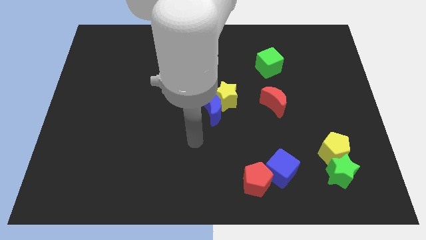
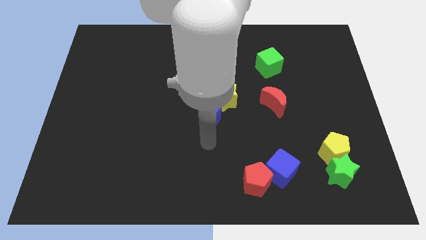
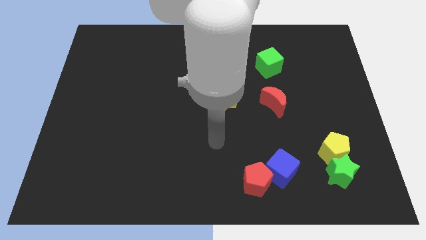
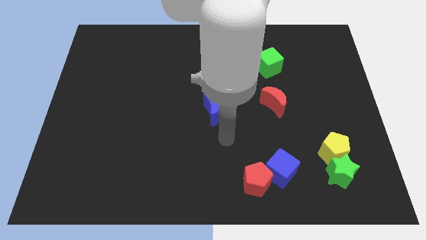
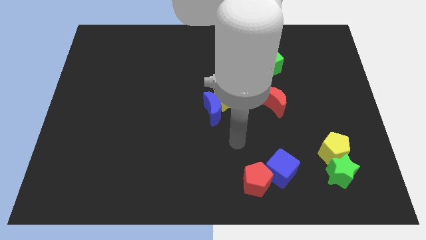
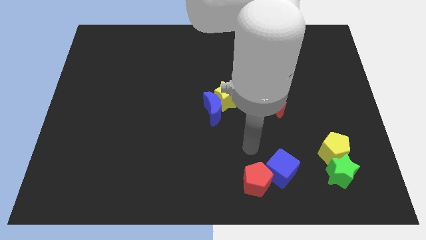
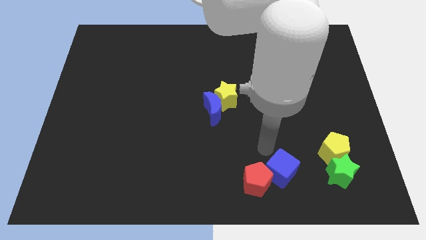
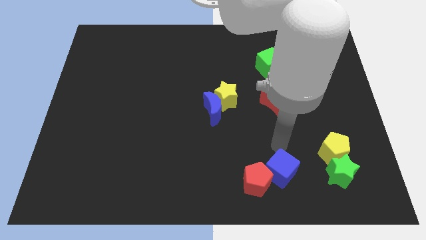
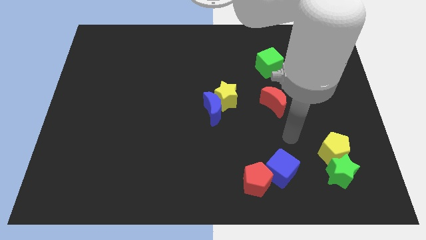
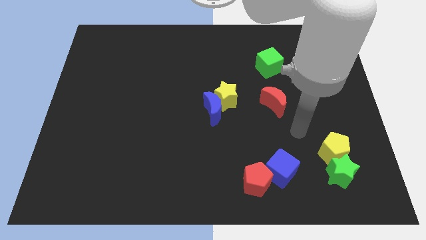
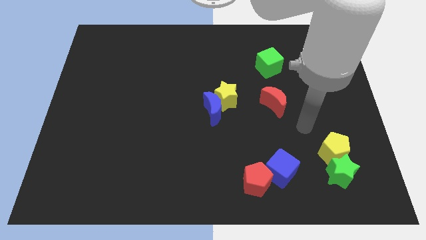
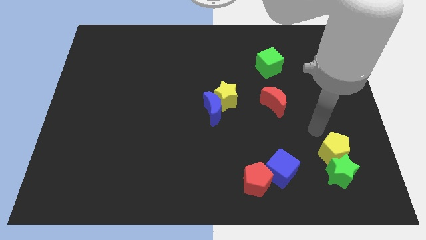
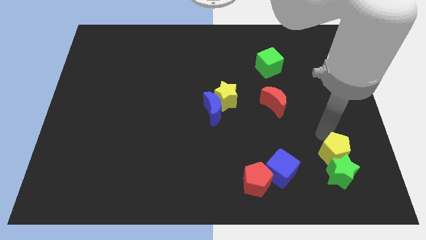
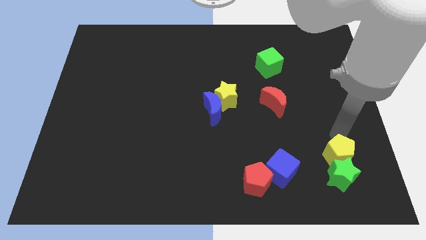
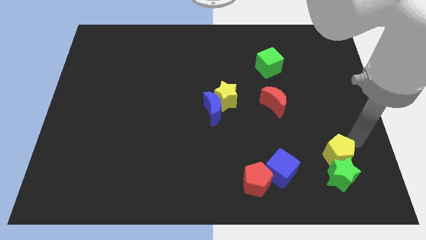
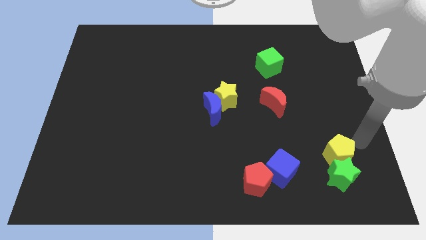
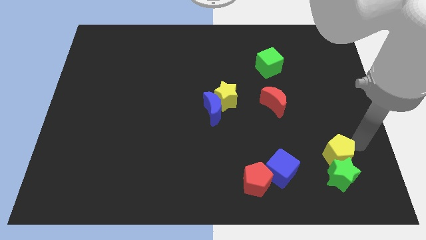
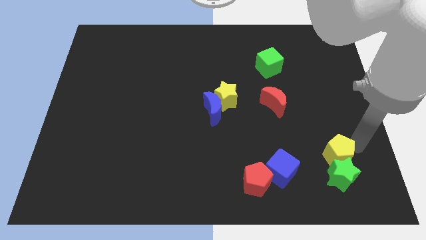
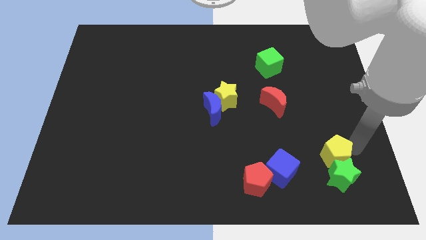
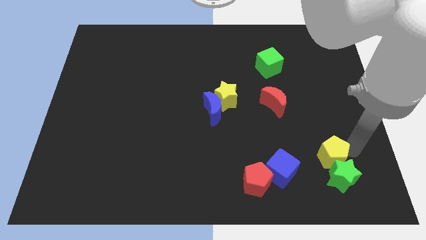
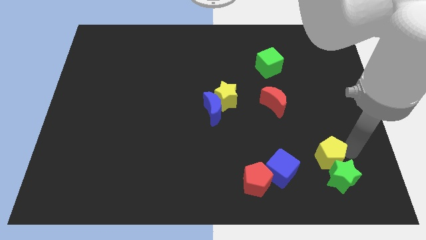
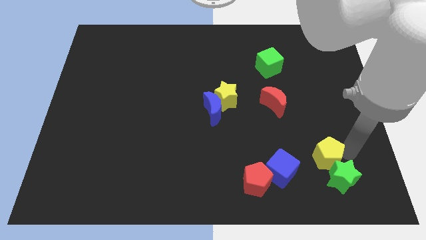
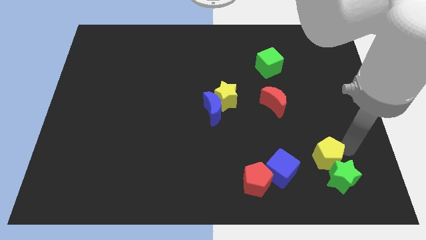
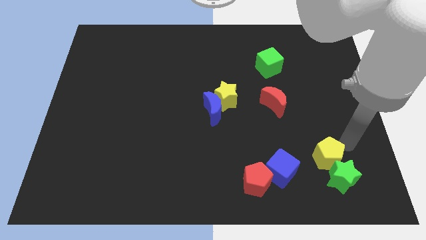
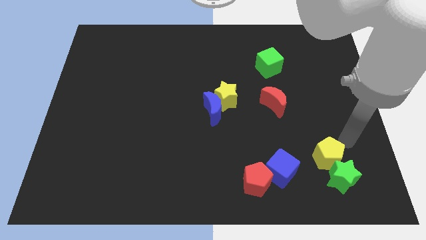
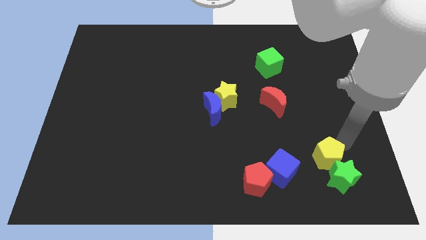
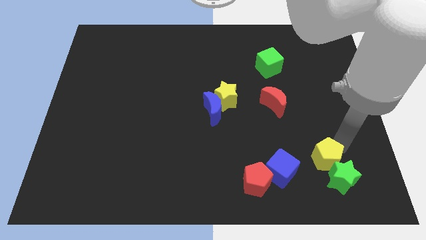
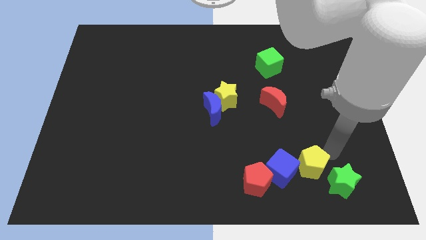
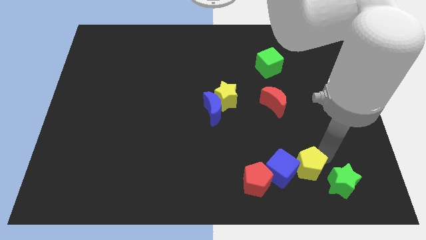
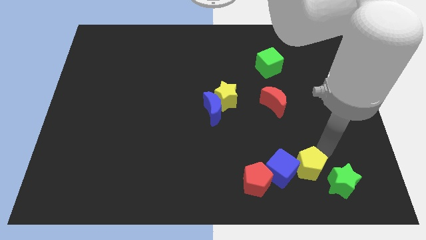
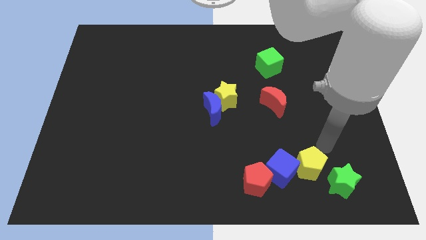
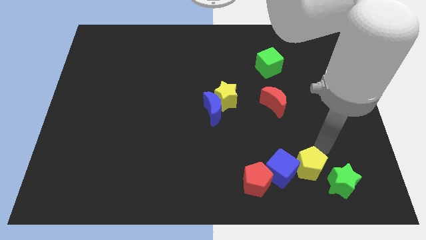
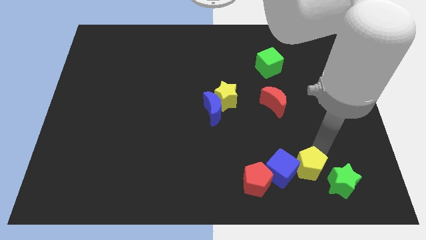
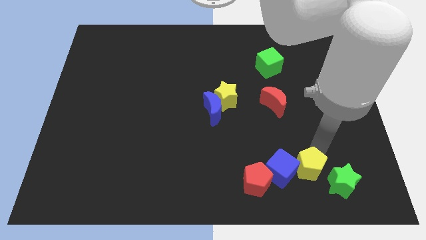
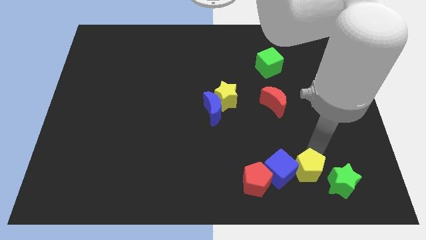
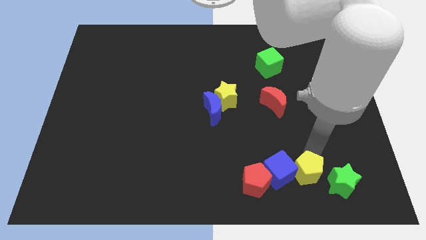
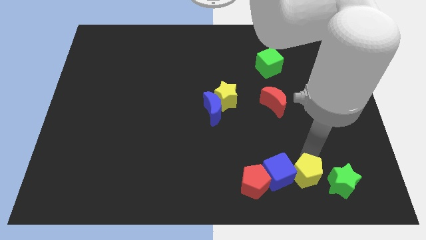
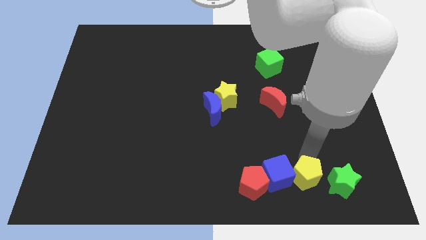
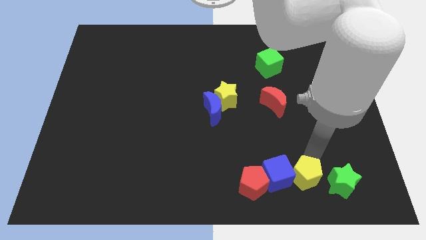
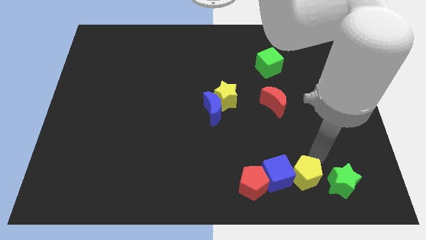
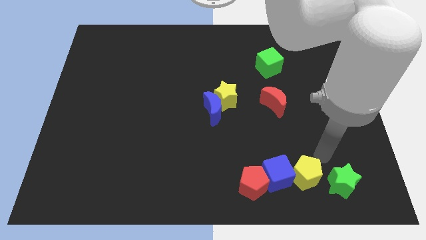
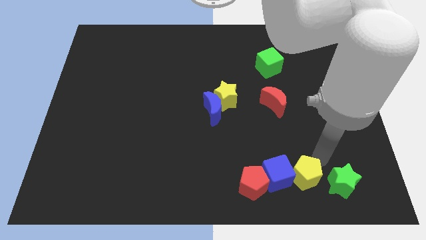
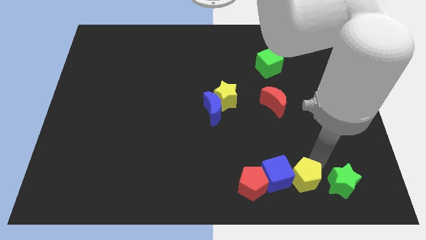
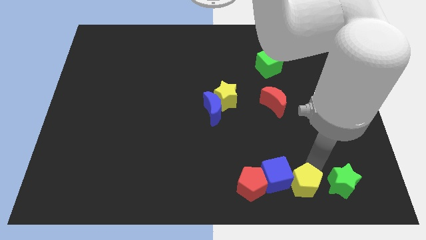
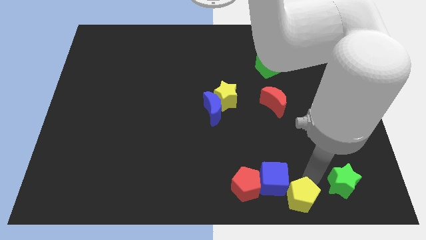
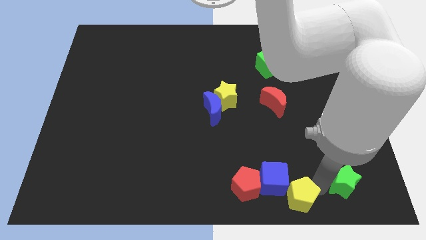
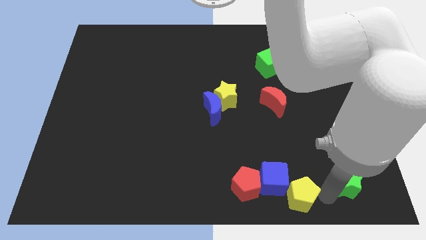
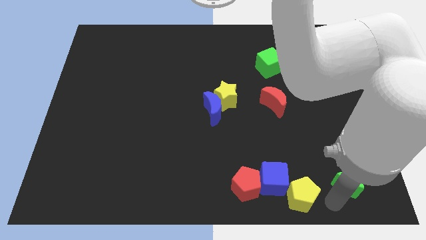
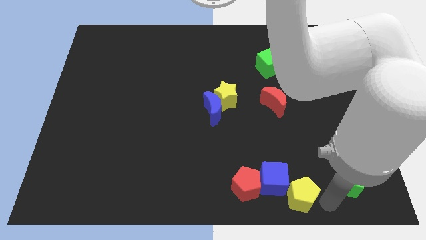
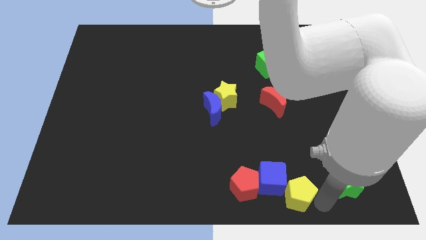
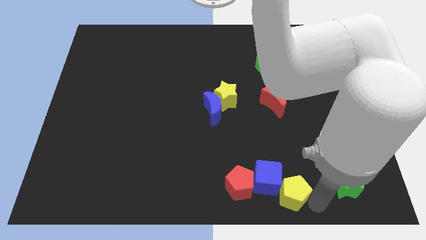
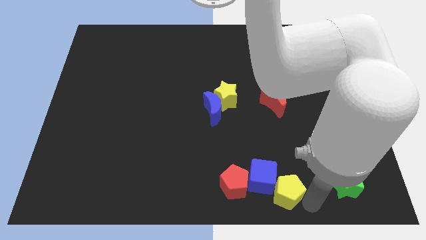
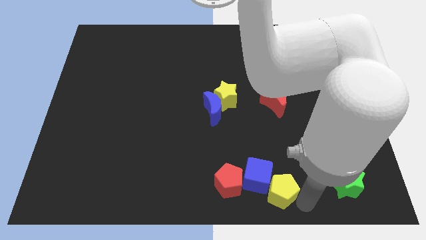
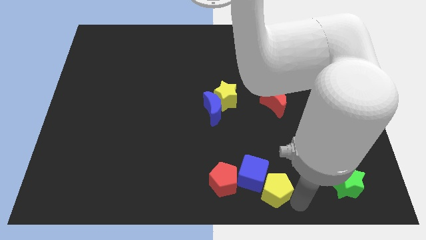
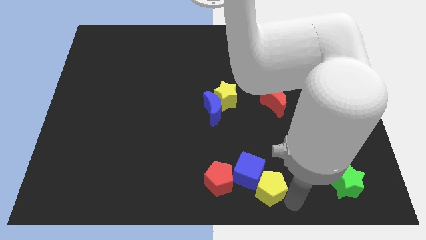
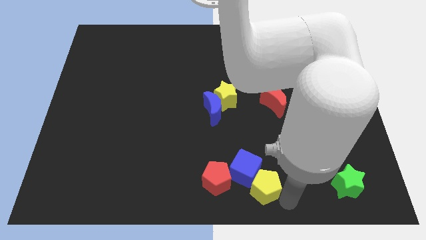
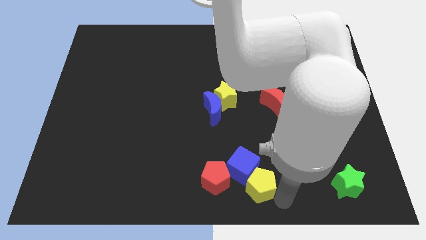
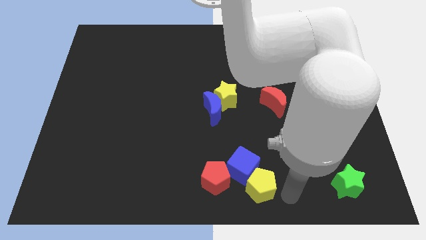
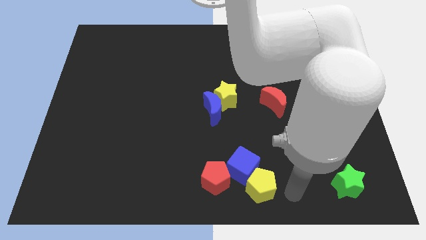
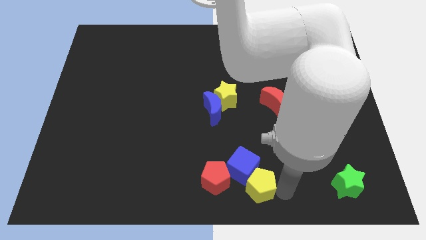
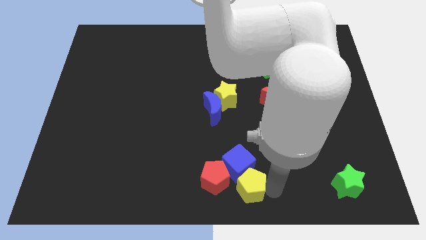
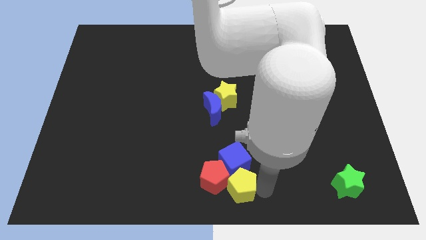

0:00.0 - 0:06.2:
slide the yellow pentagon to the red pentagon

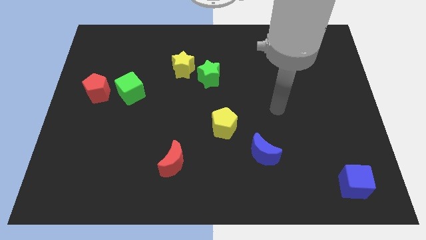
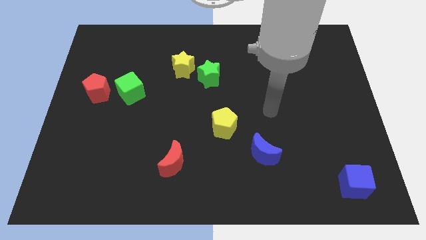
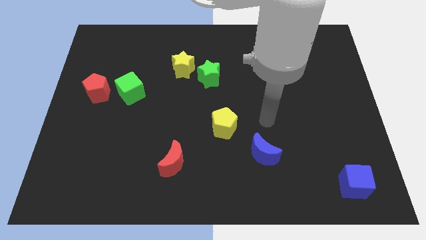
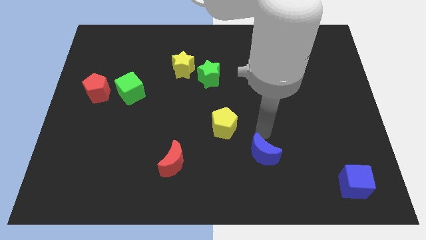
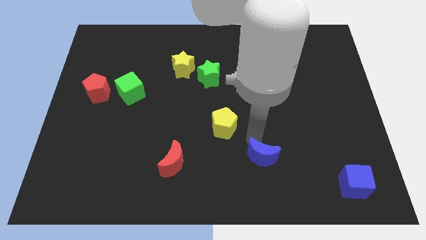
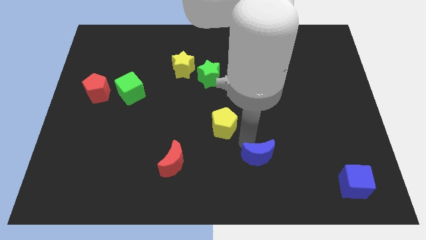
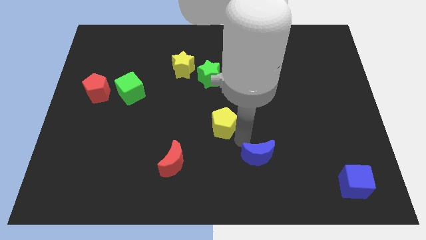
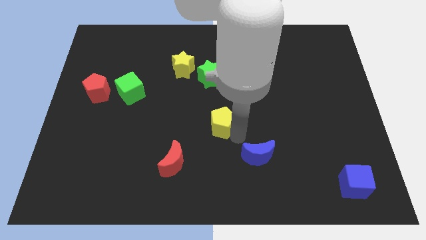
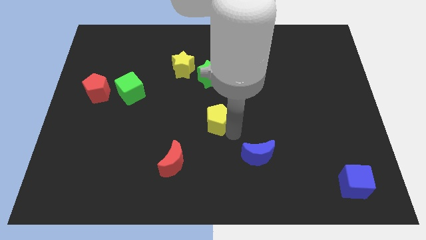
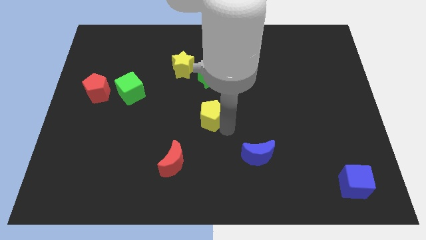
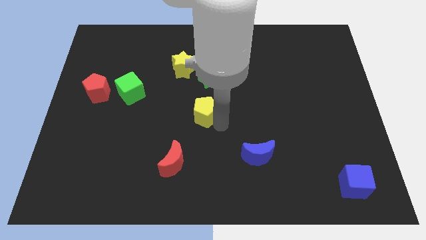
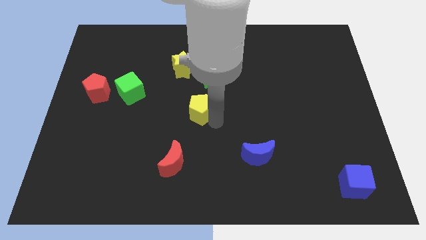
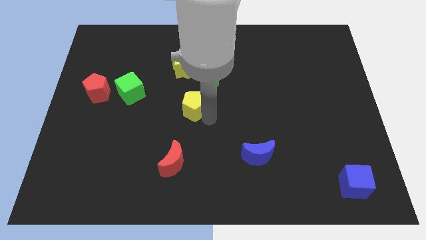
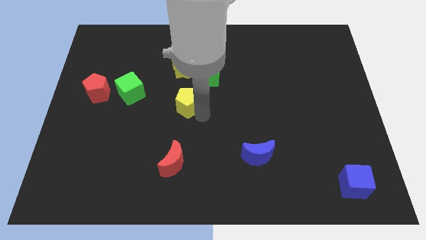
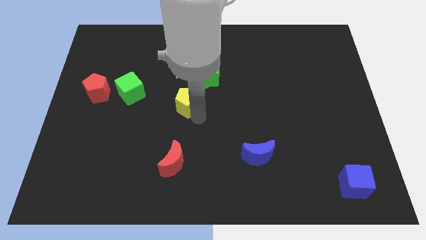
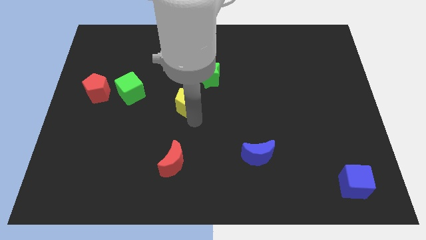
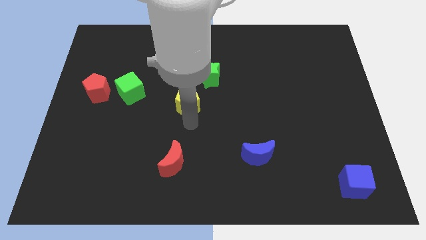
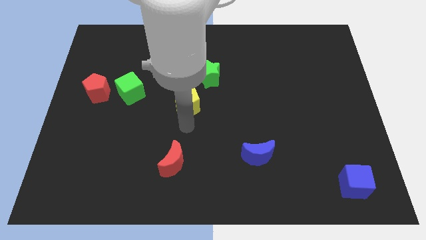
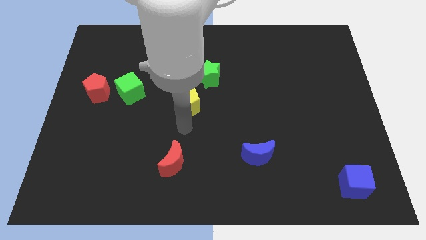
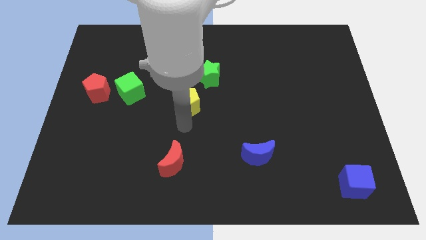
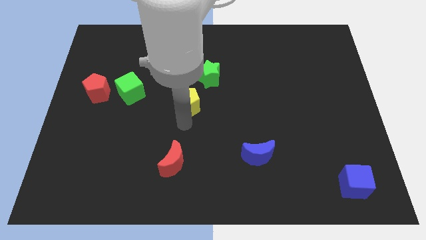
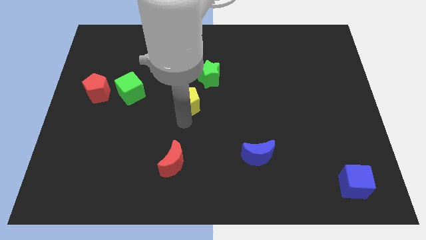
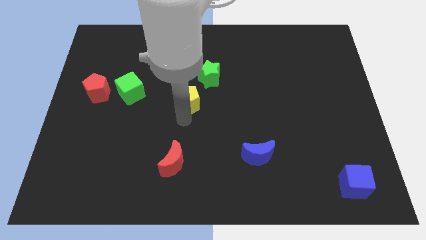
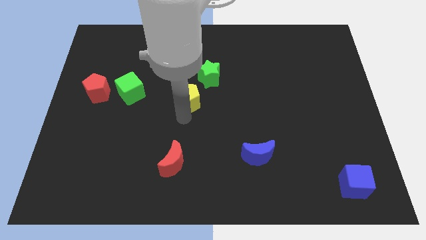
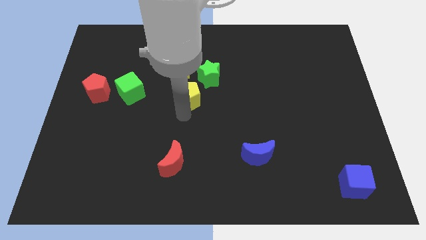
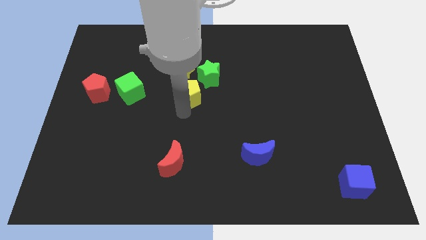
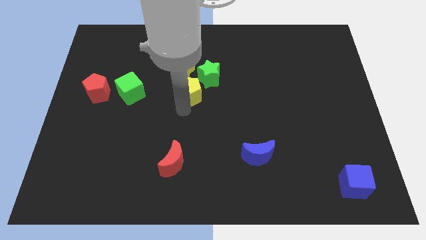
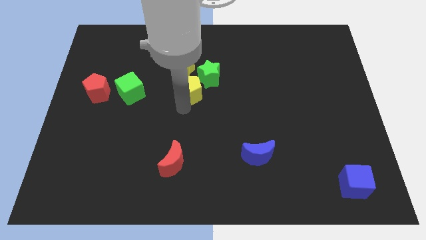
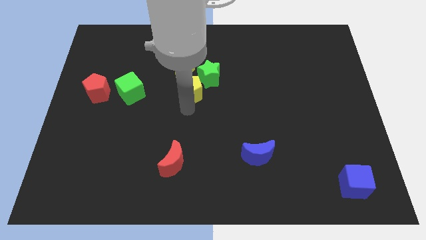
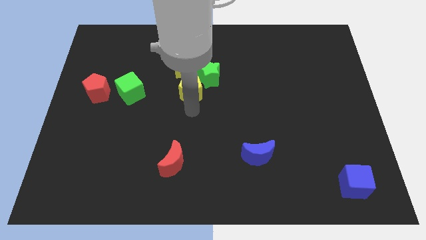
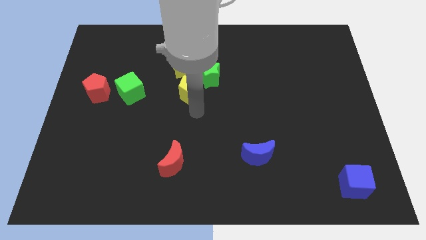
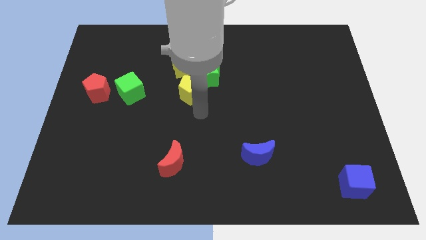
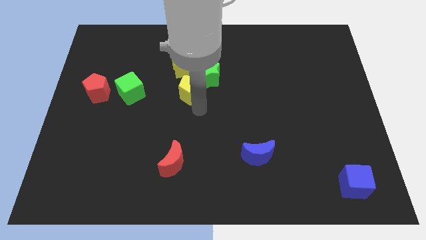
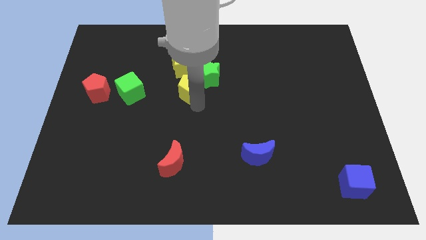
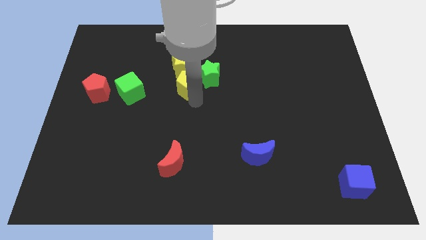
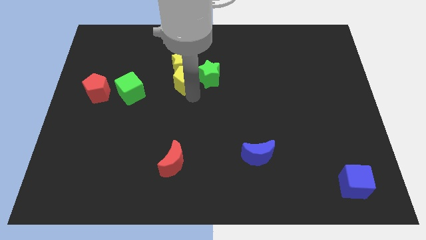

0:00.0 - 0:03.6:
slide the yellow pentagon close to the yellow star
